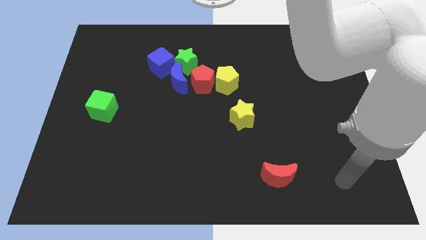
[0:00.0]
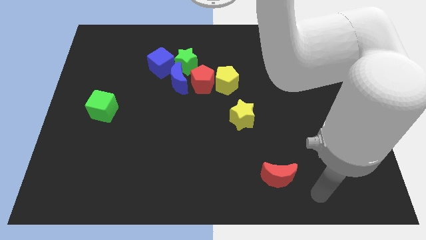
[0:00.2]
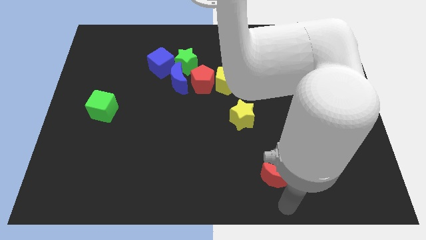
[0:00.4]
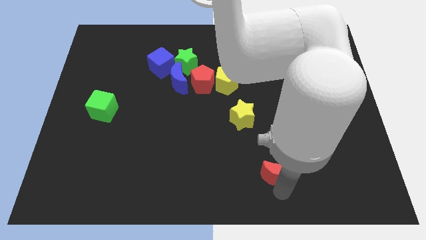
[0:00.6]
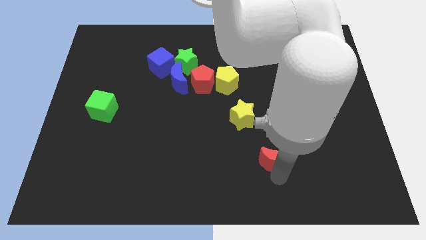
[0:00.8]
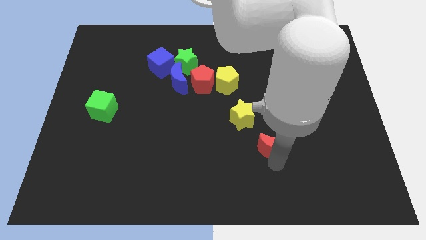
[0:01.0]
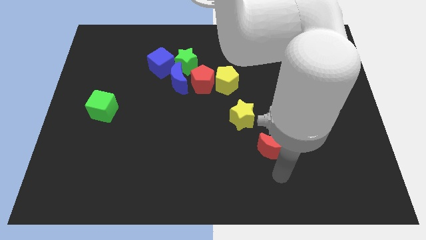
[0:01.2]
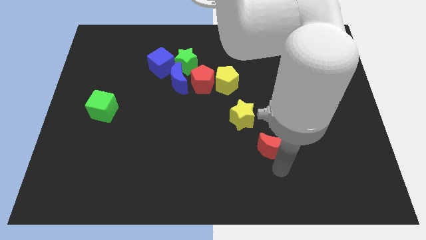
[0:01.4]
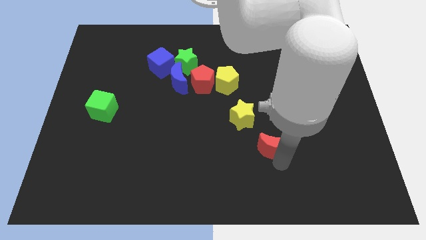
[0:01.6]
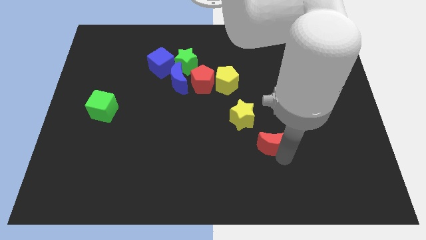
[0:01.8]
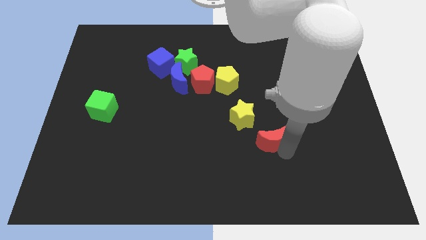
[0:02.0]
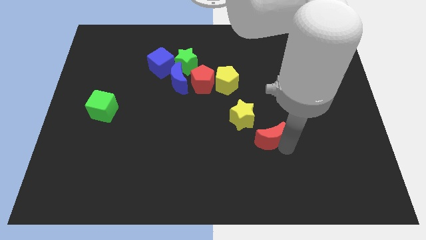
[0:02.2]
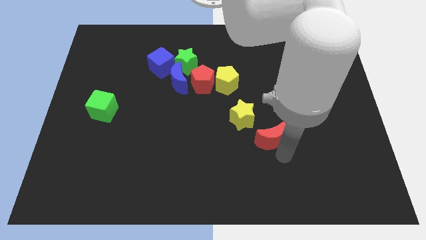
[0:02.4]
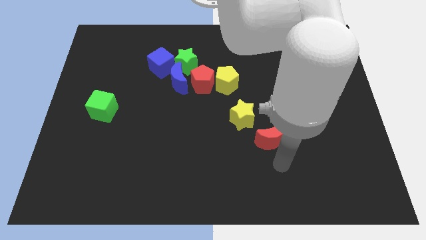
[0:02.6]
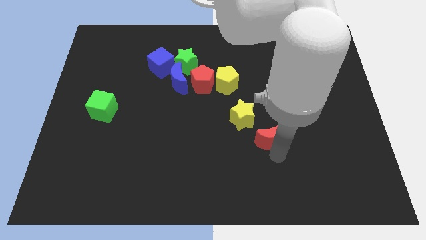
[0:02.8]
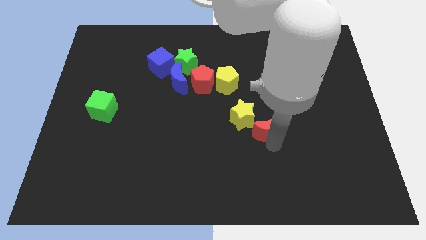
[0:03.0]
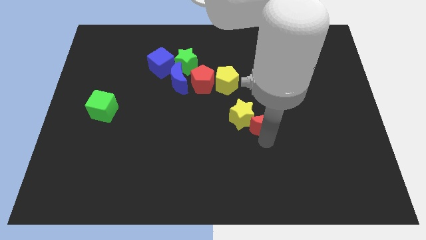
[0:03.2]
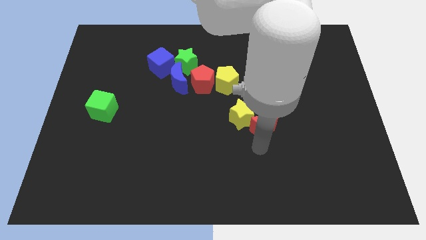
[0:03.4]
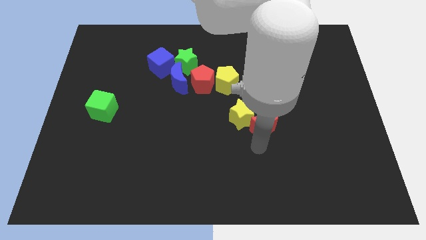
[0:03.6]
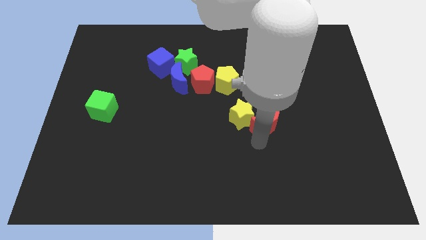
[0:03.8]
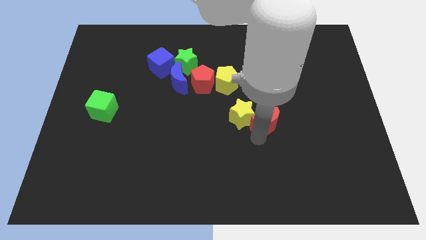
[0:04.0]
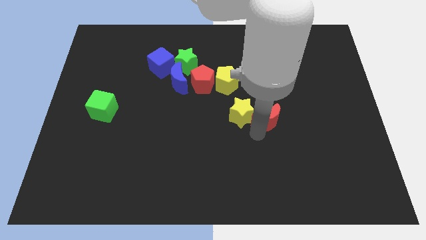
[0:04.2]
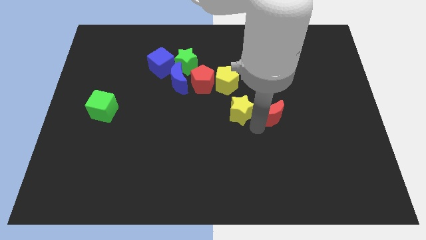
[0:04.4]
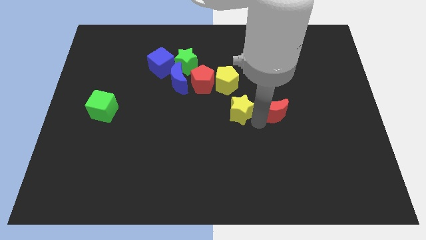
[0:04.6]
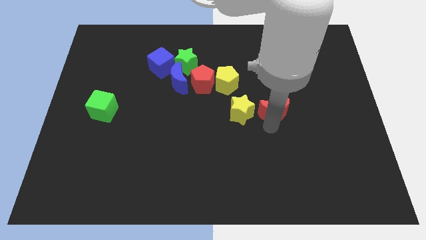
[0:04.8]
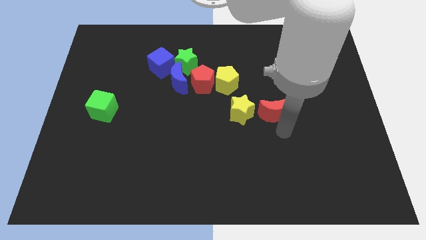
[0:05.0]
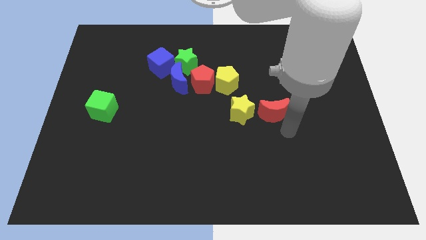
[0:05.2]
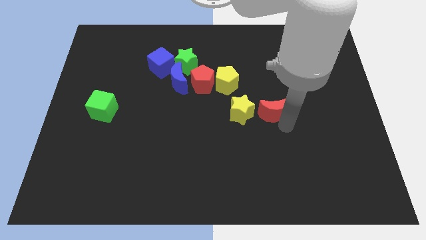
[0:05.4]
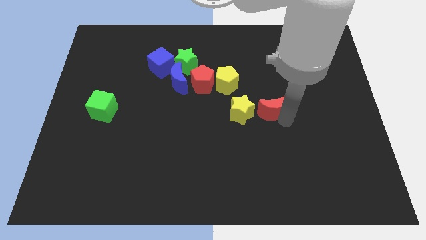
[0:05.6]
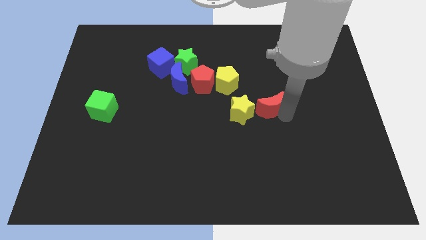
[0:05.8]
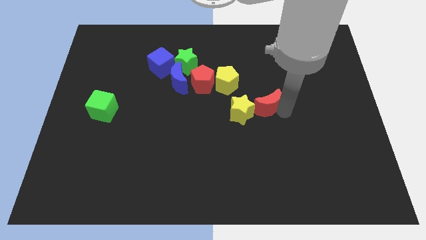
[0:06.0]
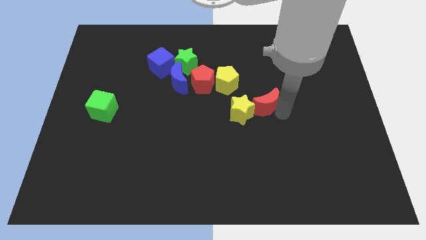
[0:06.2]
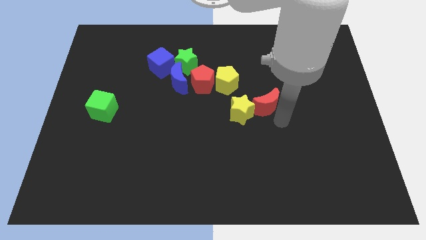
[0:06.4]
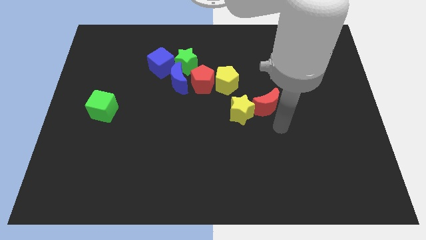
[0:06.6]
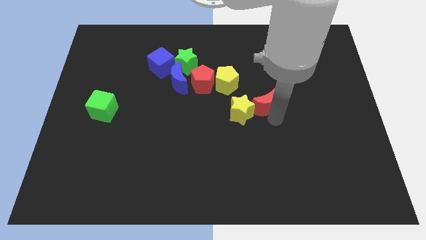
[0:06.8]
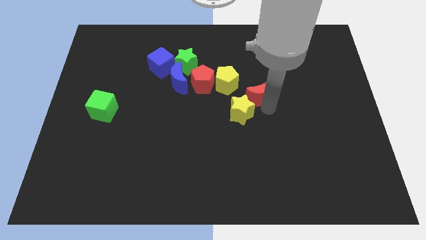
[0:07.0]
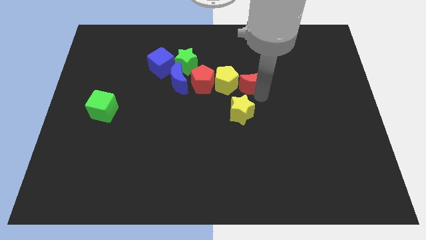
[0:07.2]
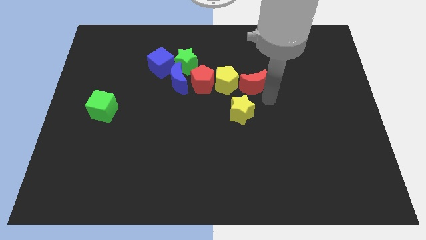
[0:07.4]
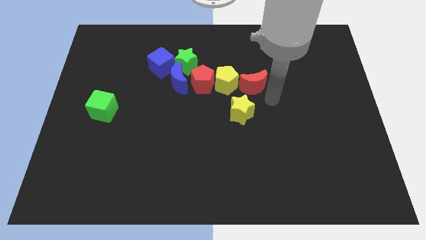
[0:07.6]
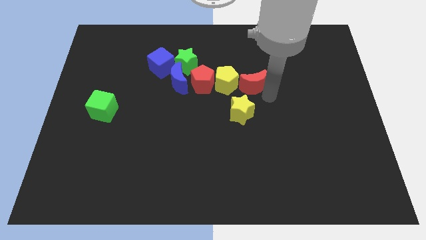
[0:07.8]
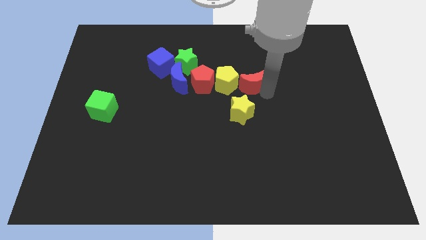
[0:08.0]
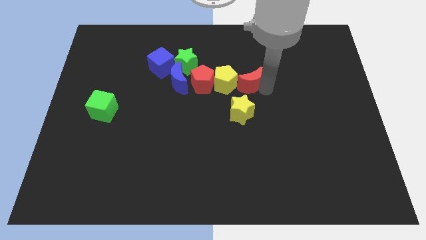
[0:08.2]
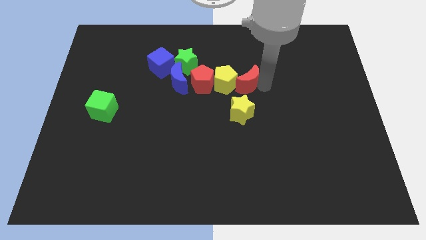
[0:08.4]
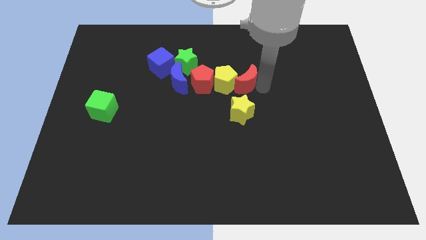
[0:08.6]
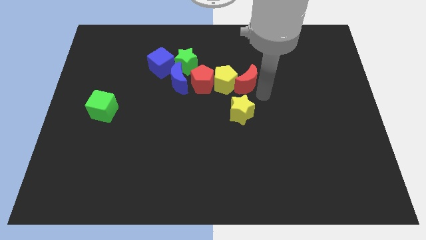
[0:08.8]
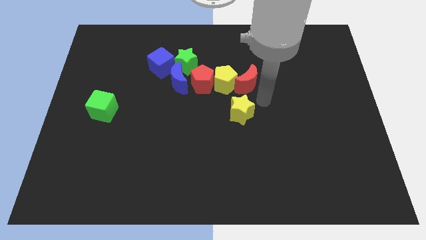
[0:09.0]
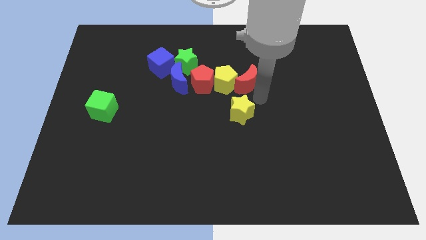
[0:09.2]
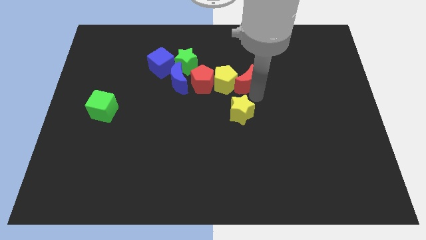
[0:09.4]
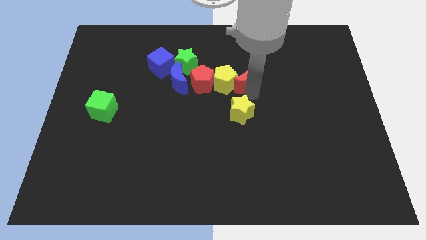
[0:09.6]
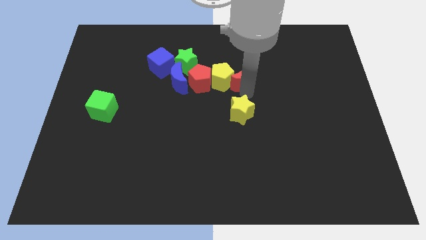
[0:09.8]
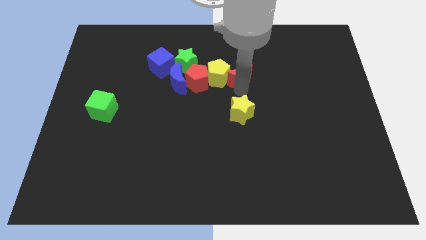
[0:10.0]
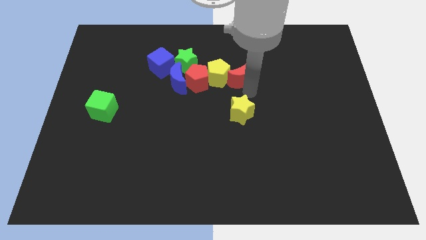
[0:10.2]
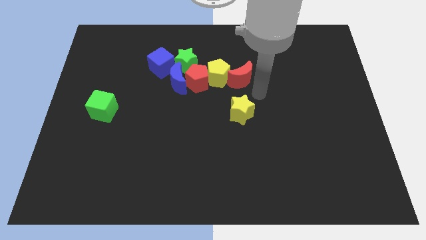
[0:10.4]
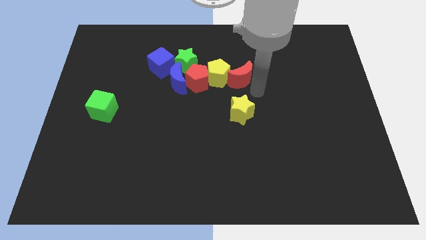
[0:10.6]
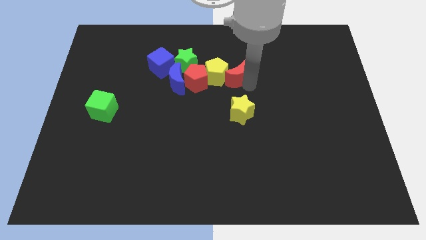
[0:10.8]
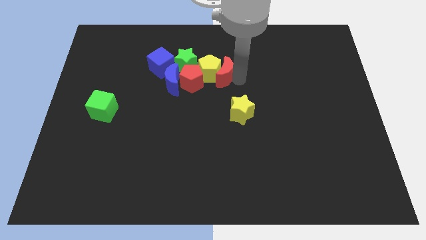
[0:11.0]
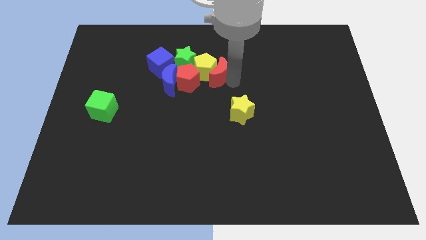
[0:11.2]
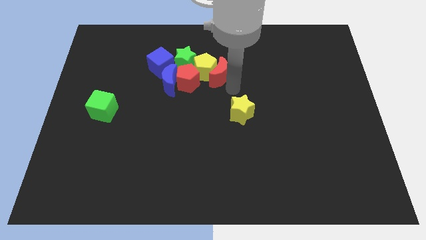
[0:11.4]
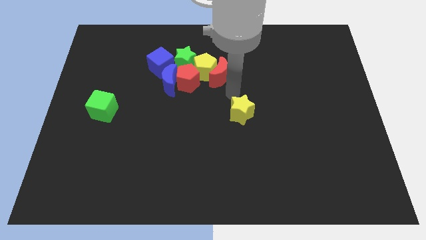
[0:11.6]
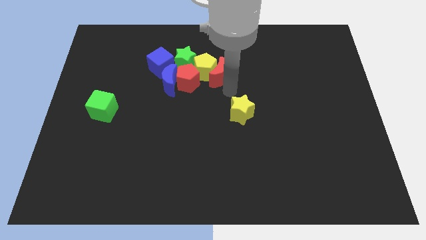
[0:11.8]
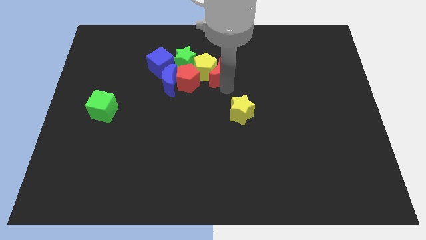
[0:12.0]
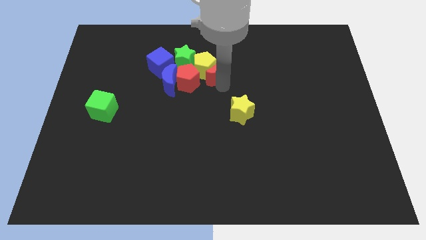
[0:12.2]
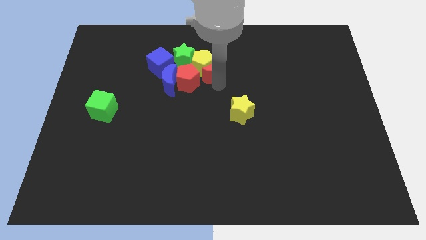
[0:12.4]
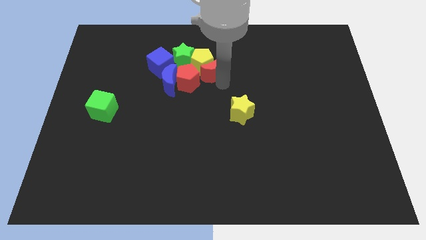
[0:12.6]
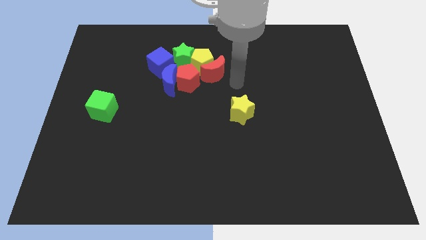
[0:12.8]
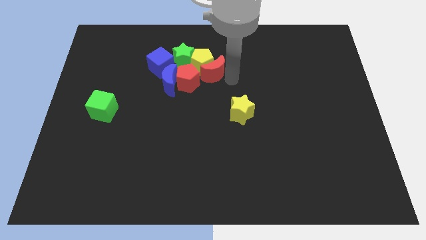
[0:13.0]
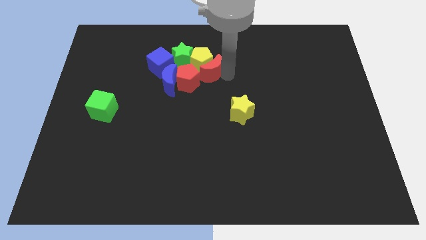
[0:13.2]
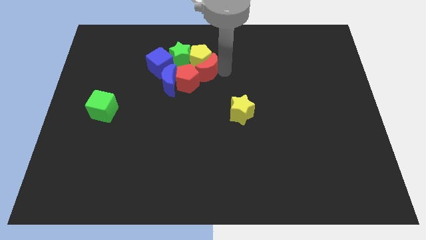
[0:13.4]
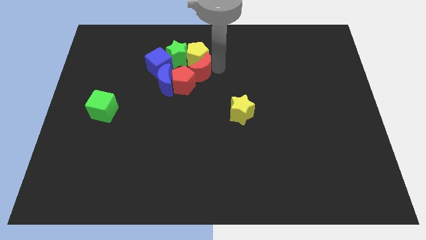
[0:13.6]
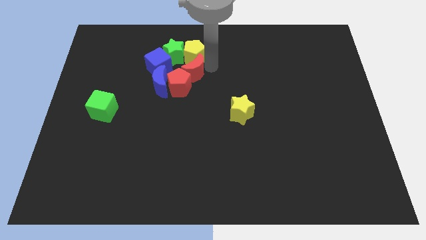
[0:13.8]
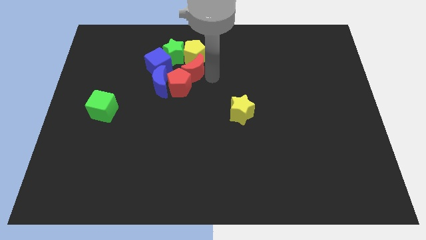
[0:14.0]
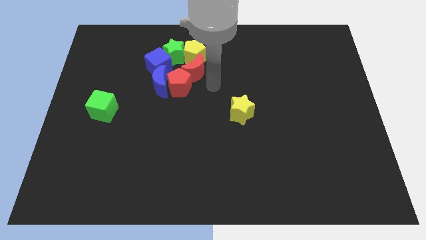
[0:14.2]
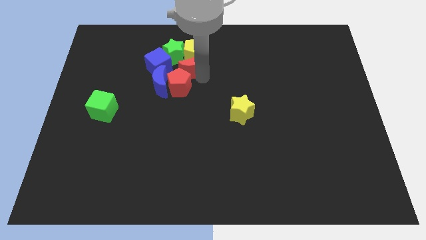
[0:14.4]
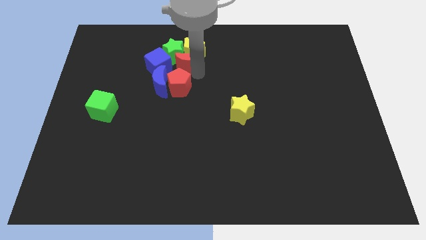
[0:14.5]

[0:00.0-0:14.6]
move the red moon to the green star
